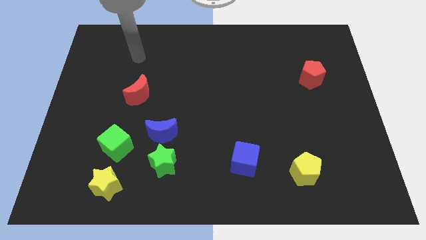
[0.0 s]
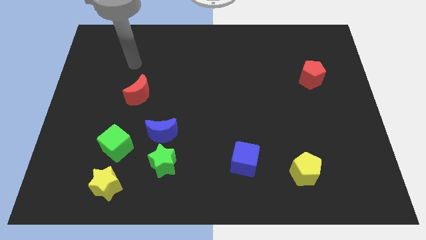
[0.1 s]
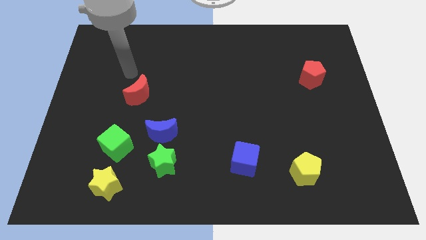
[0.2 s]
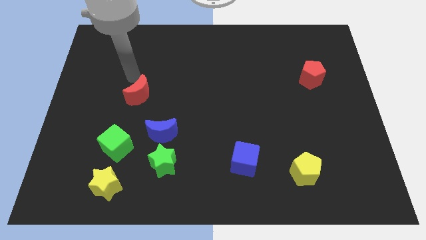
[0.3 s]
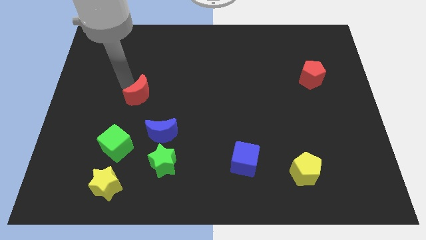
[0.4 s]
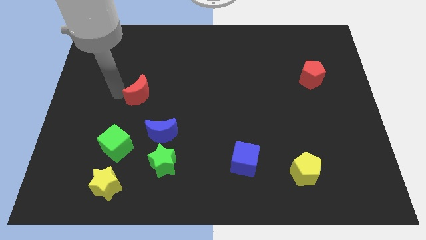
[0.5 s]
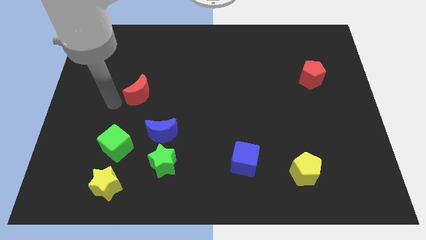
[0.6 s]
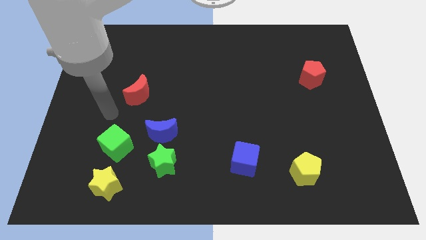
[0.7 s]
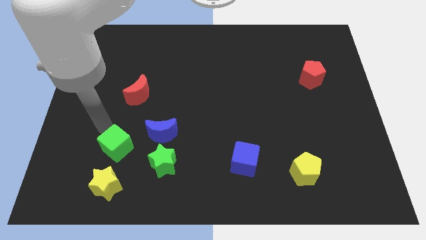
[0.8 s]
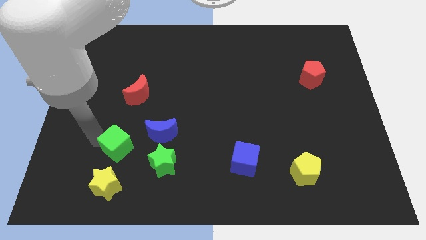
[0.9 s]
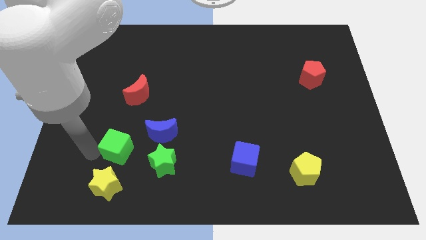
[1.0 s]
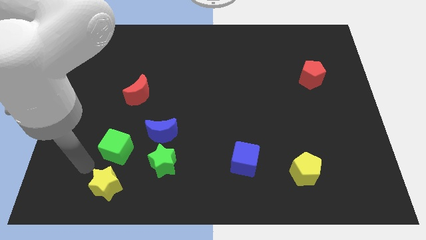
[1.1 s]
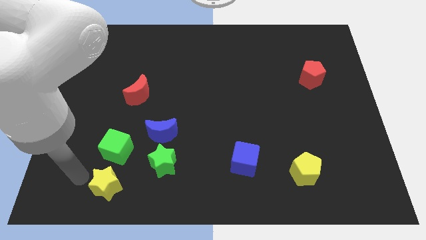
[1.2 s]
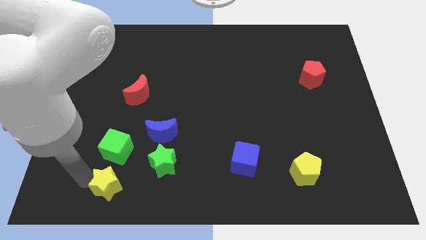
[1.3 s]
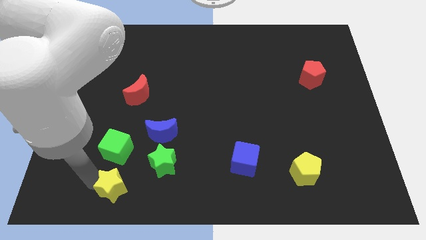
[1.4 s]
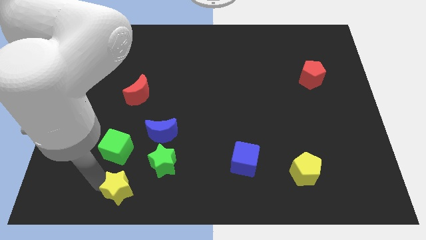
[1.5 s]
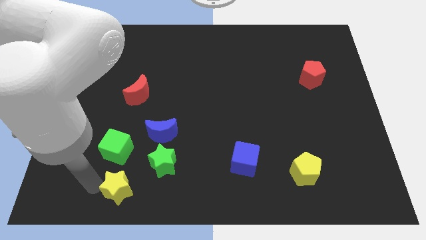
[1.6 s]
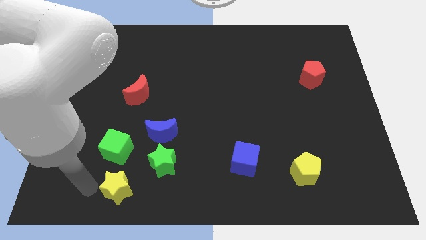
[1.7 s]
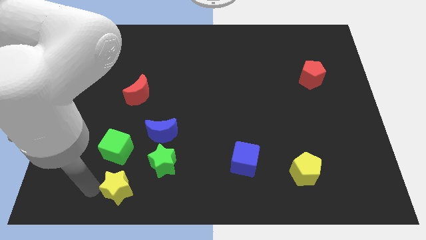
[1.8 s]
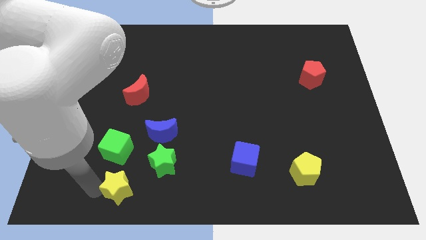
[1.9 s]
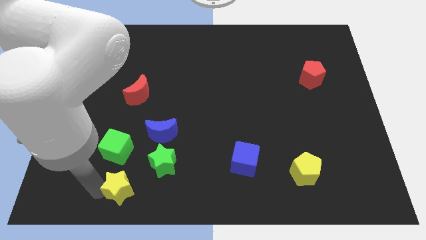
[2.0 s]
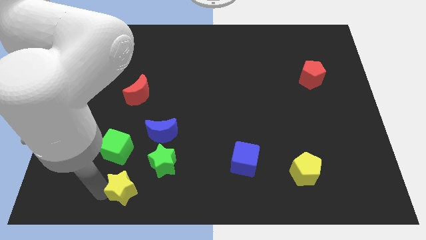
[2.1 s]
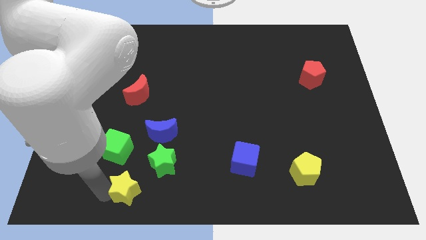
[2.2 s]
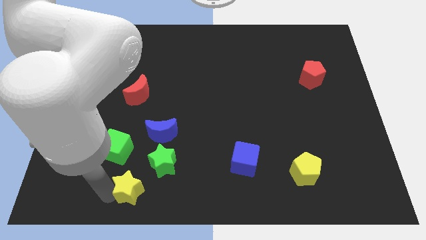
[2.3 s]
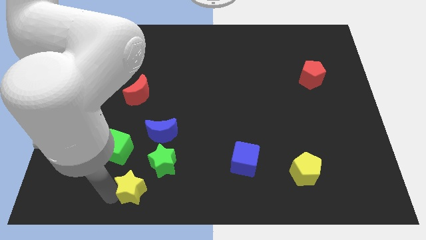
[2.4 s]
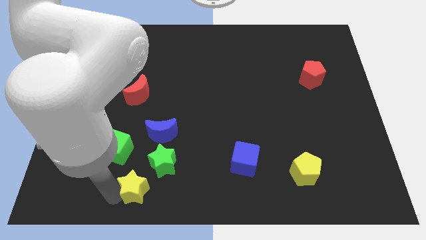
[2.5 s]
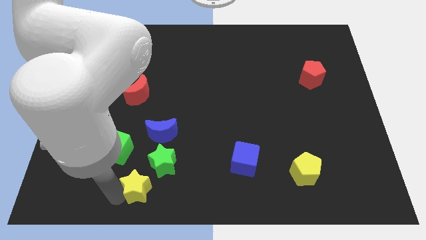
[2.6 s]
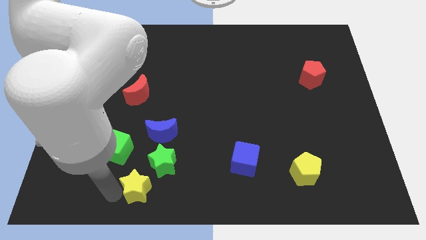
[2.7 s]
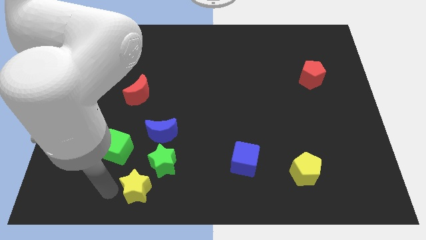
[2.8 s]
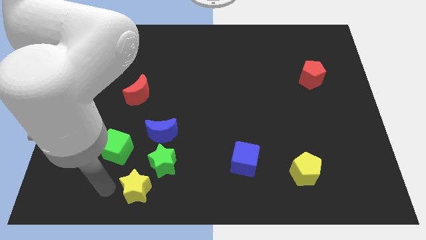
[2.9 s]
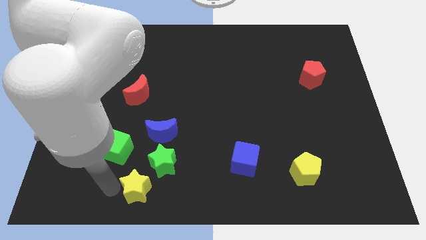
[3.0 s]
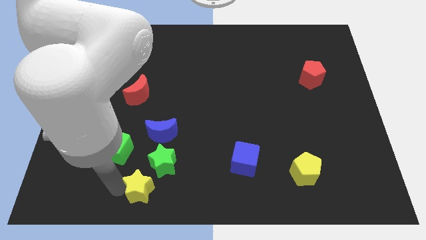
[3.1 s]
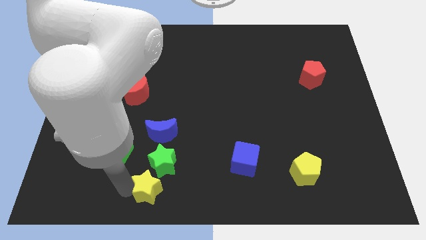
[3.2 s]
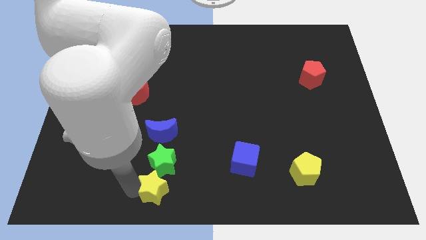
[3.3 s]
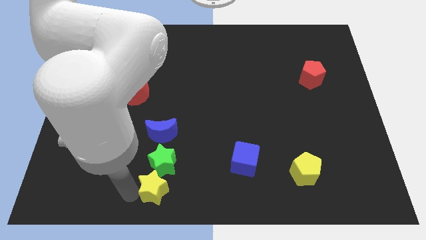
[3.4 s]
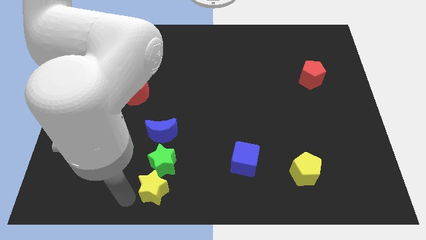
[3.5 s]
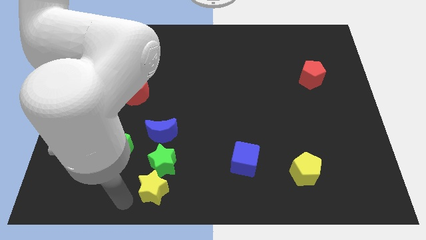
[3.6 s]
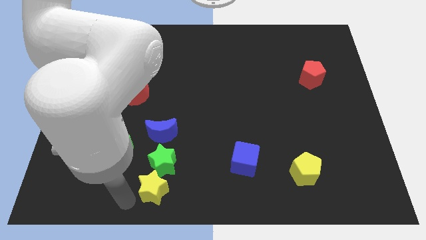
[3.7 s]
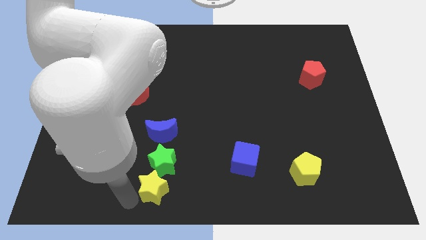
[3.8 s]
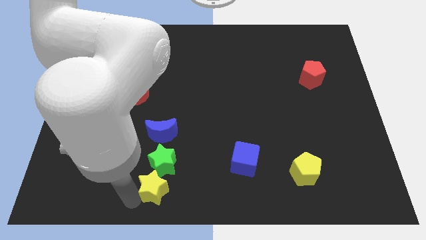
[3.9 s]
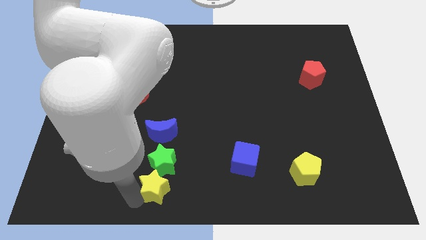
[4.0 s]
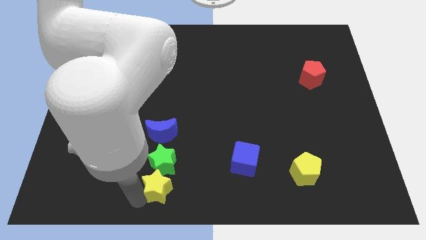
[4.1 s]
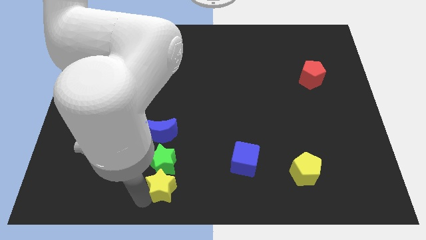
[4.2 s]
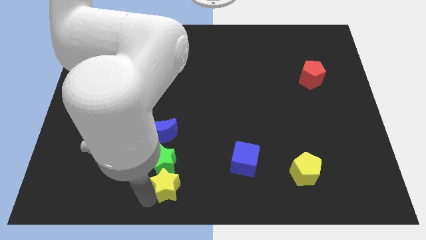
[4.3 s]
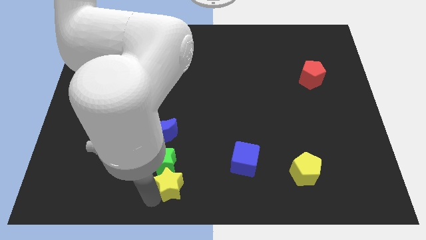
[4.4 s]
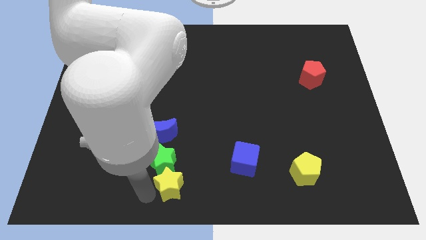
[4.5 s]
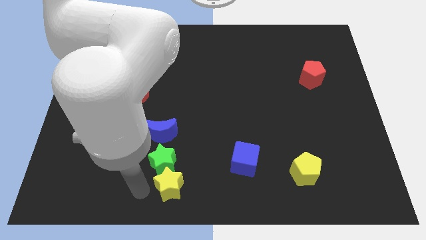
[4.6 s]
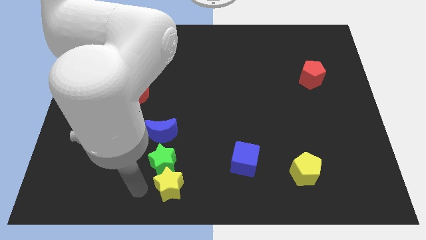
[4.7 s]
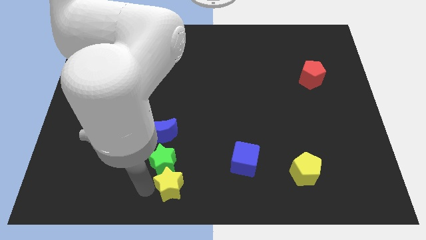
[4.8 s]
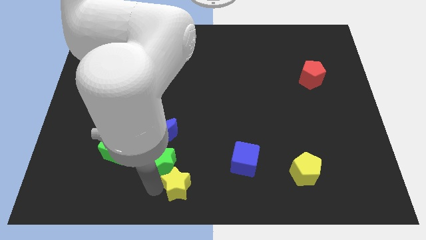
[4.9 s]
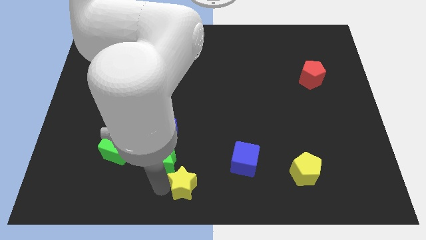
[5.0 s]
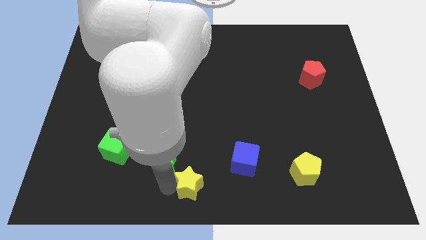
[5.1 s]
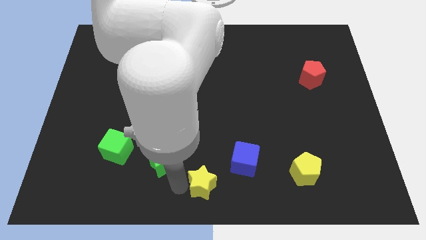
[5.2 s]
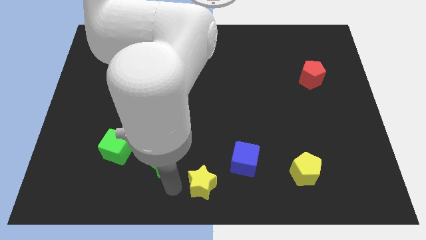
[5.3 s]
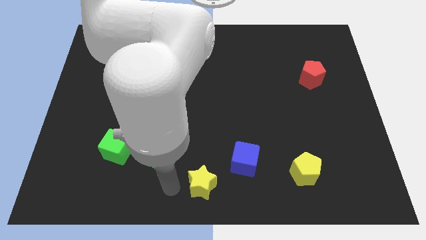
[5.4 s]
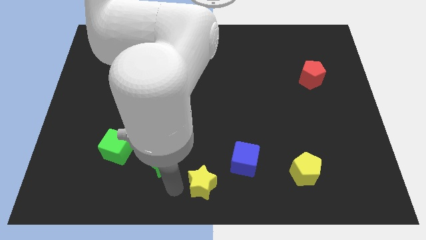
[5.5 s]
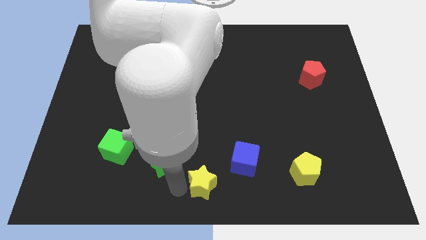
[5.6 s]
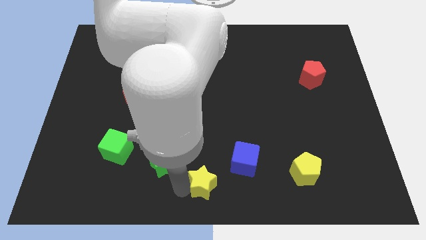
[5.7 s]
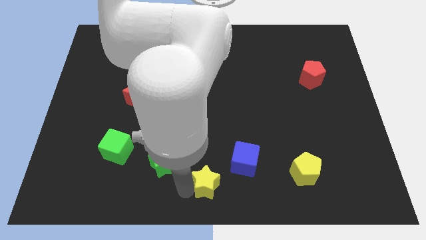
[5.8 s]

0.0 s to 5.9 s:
move the yellow star right

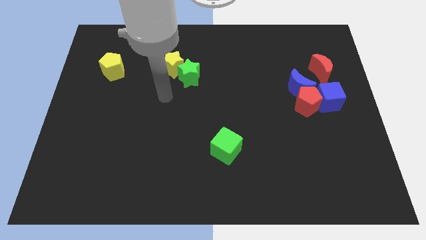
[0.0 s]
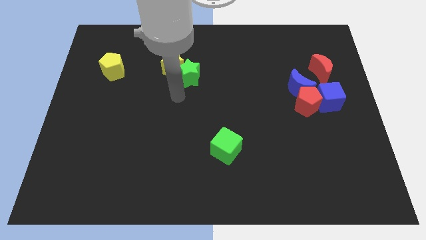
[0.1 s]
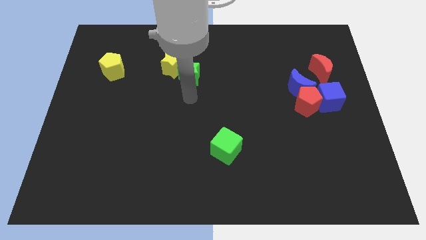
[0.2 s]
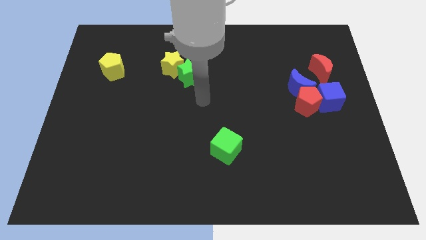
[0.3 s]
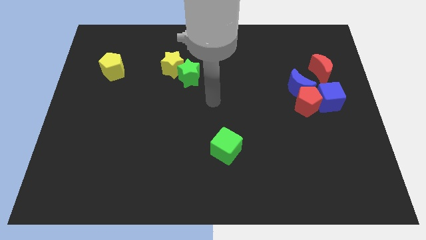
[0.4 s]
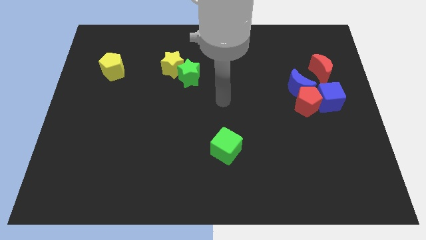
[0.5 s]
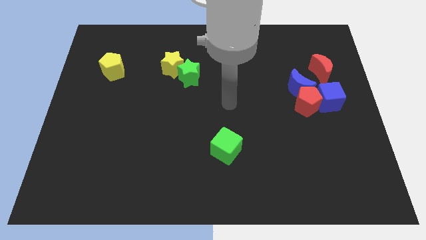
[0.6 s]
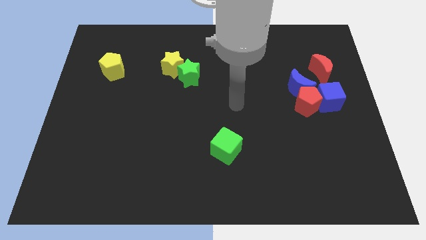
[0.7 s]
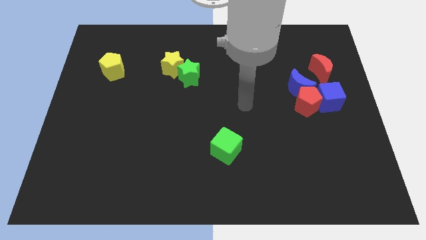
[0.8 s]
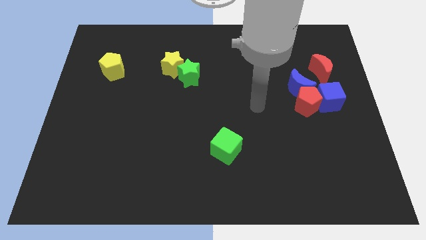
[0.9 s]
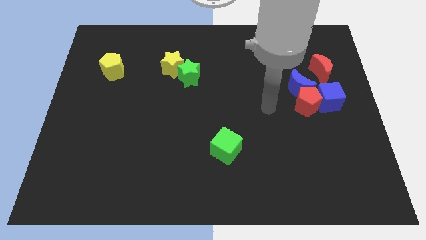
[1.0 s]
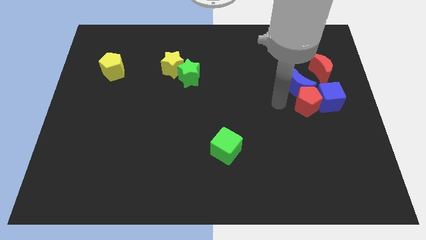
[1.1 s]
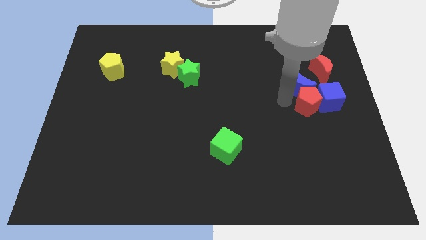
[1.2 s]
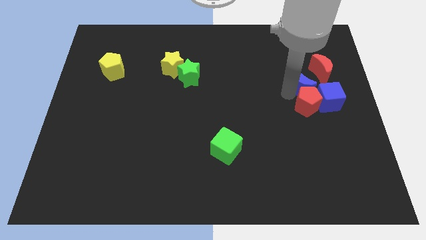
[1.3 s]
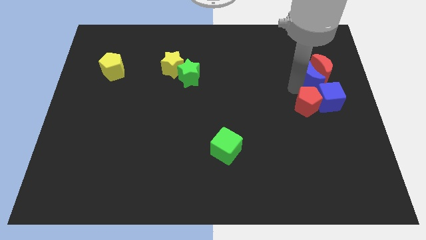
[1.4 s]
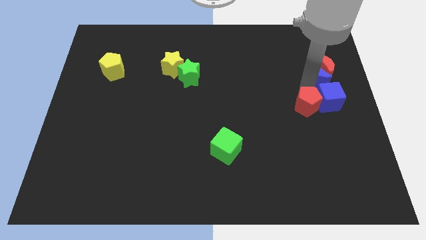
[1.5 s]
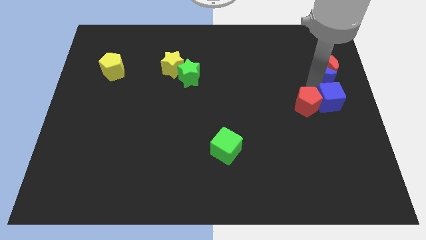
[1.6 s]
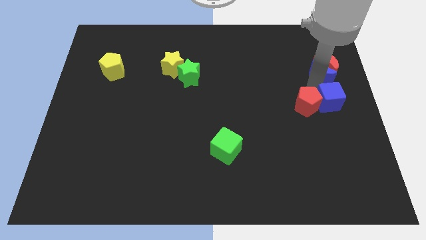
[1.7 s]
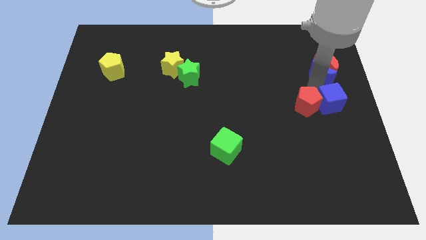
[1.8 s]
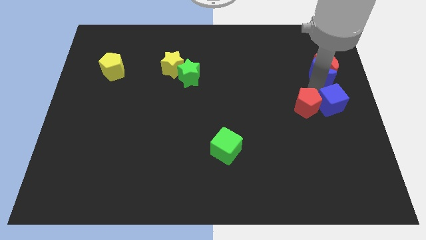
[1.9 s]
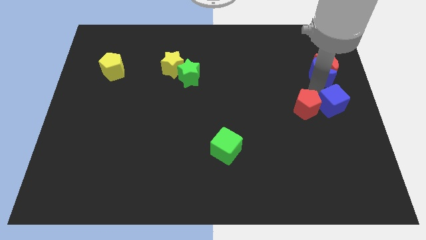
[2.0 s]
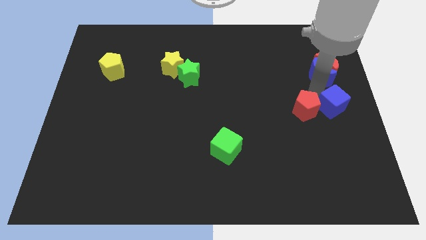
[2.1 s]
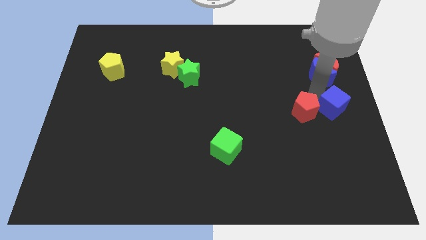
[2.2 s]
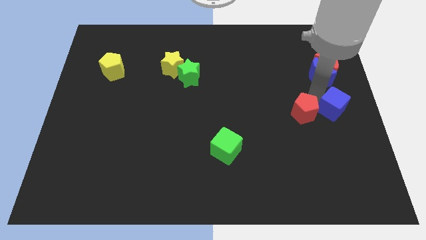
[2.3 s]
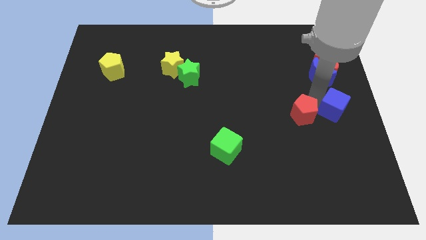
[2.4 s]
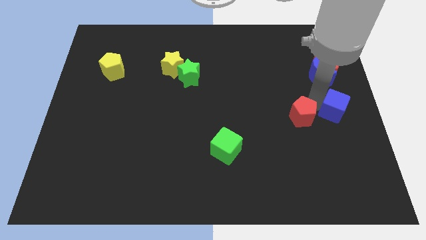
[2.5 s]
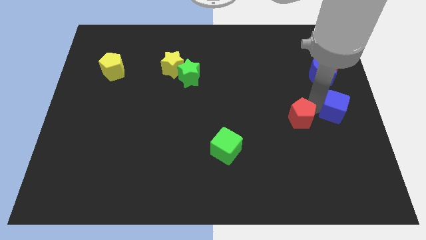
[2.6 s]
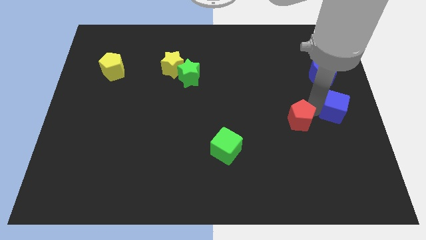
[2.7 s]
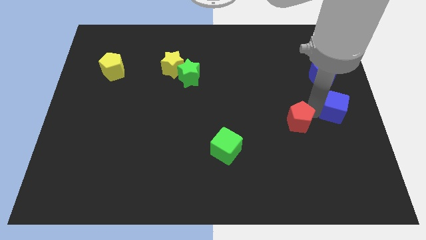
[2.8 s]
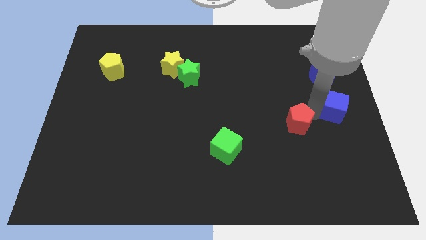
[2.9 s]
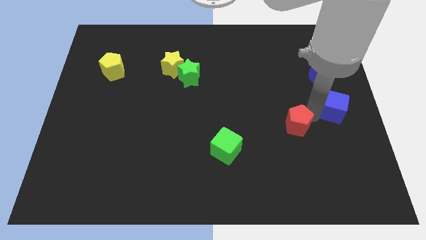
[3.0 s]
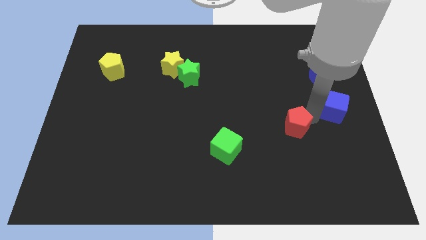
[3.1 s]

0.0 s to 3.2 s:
push the red pentagon slightly downwards and left diagonally
